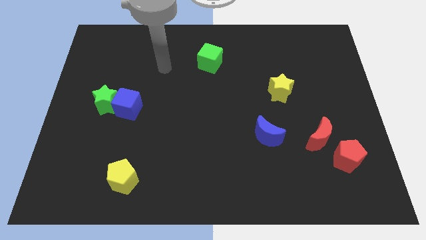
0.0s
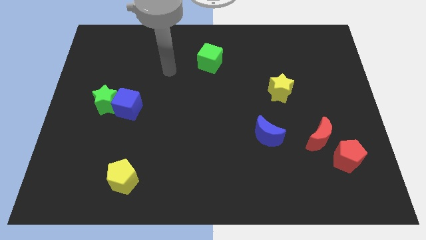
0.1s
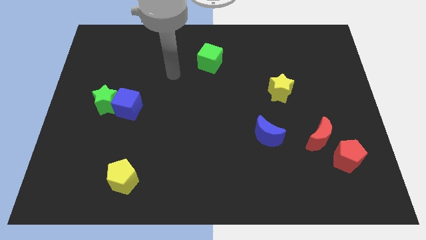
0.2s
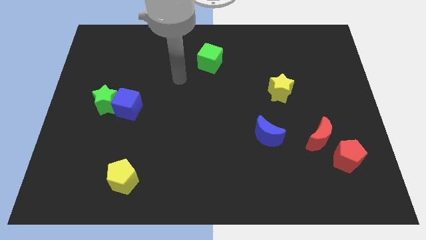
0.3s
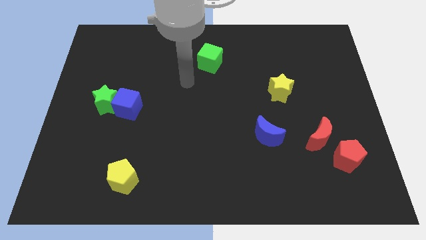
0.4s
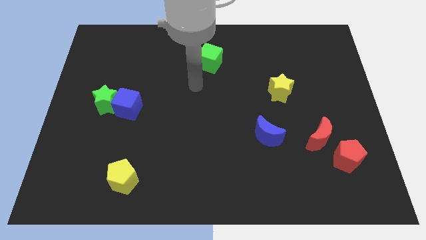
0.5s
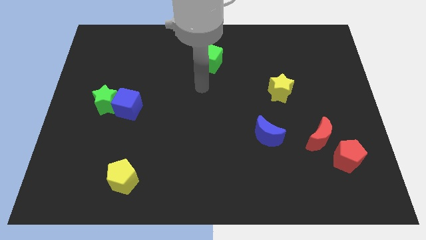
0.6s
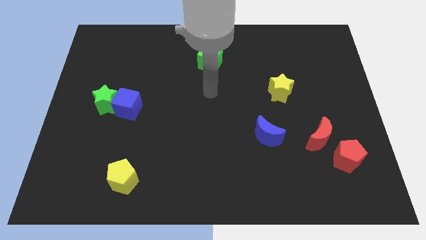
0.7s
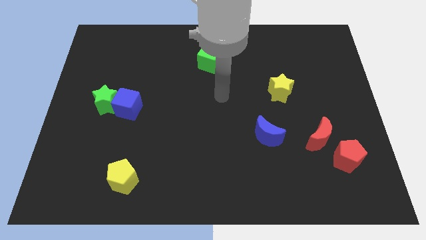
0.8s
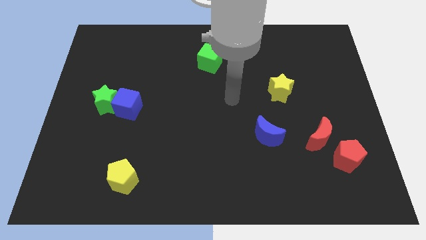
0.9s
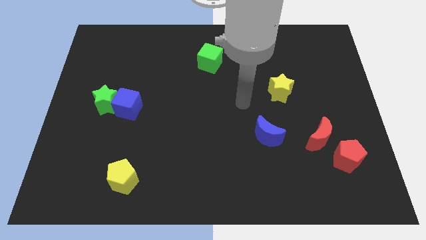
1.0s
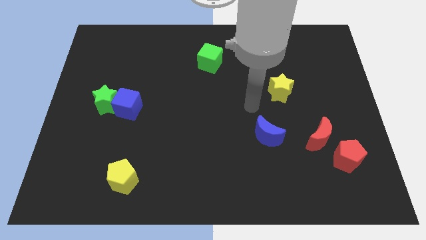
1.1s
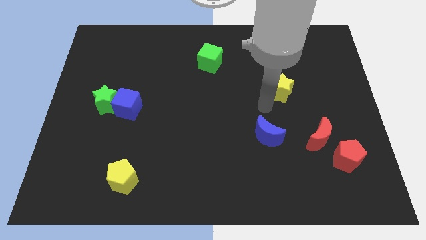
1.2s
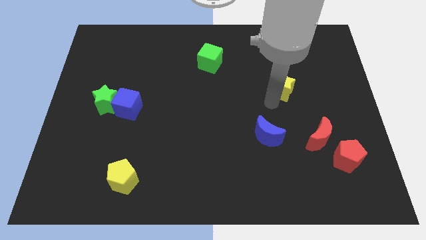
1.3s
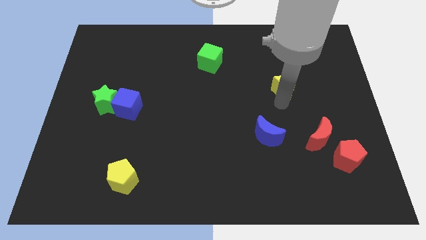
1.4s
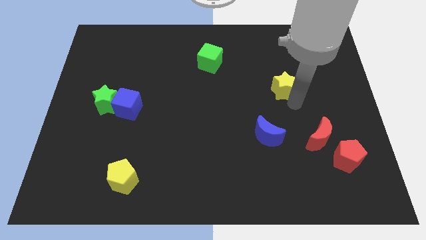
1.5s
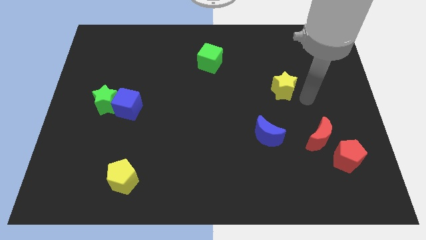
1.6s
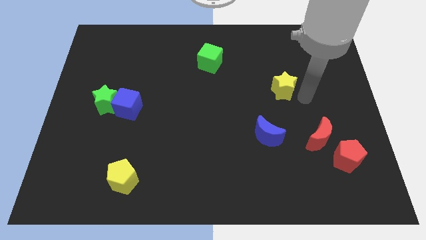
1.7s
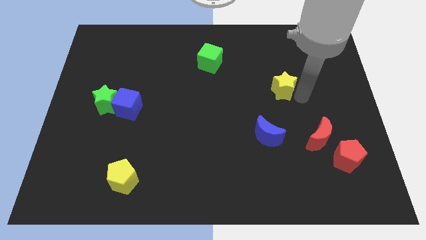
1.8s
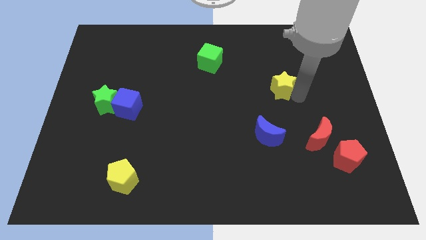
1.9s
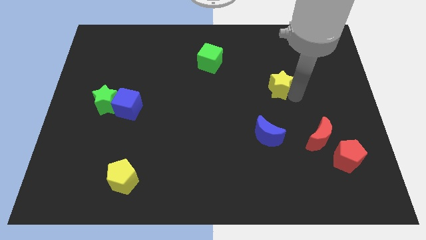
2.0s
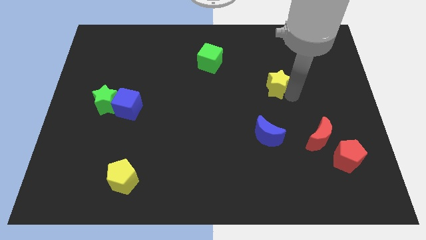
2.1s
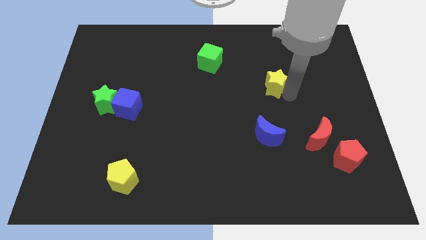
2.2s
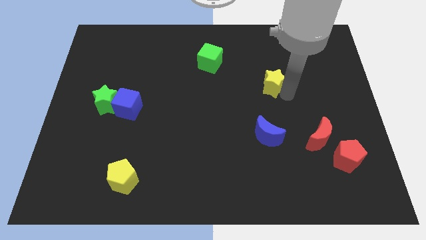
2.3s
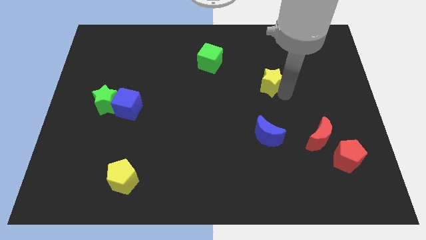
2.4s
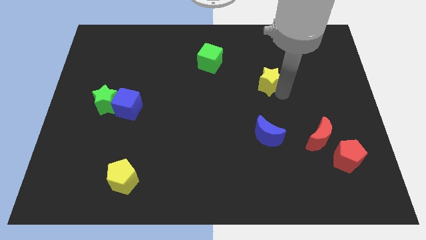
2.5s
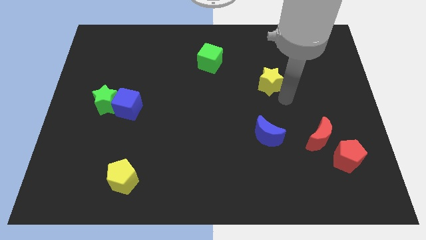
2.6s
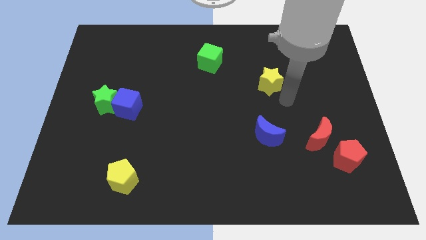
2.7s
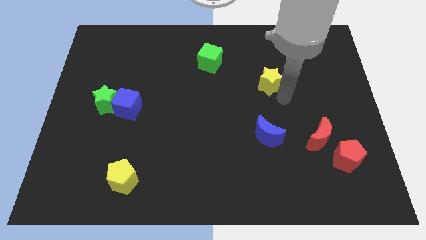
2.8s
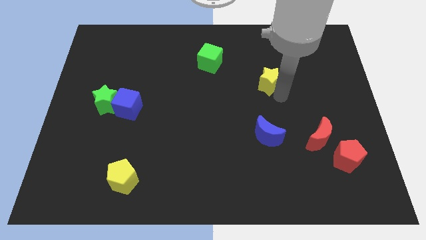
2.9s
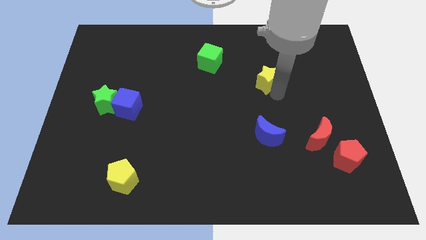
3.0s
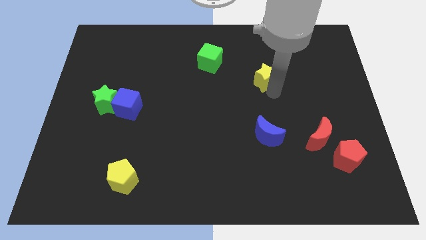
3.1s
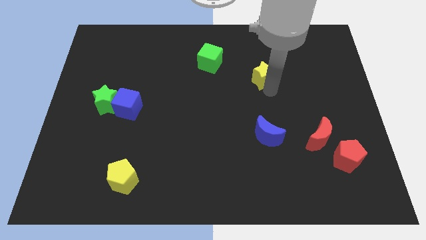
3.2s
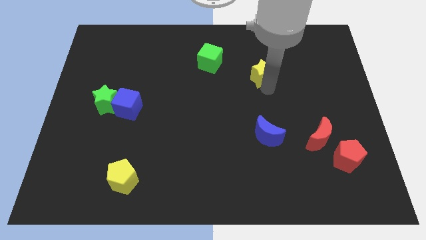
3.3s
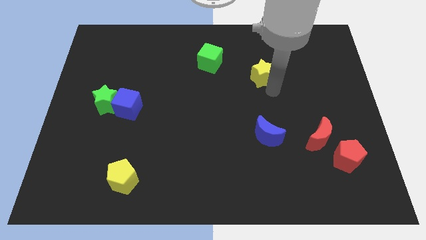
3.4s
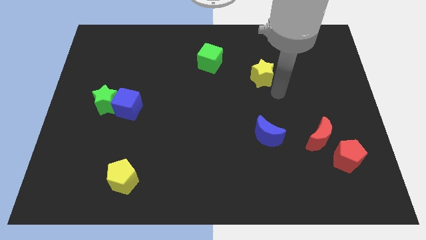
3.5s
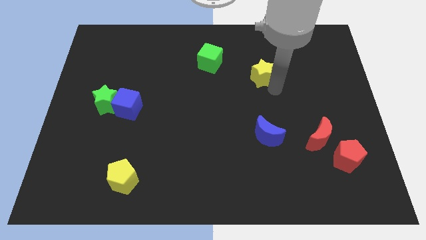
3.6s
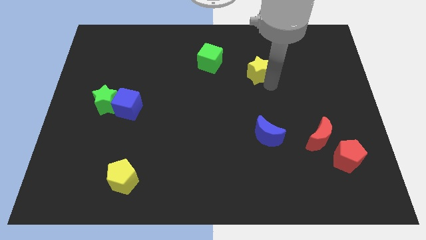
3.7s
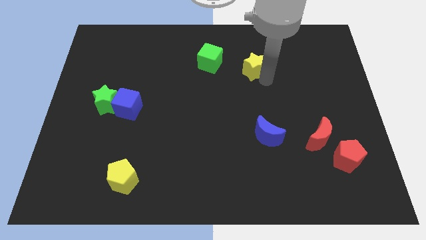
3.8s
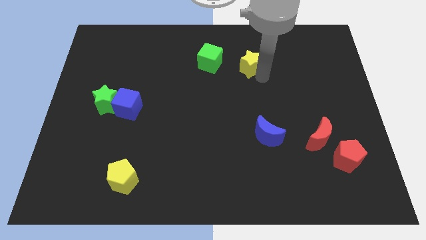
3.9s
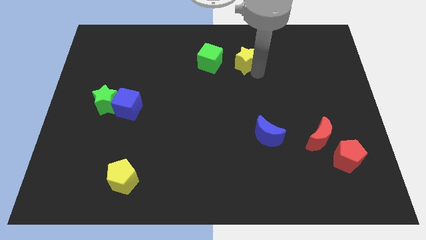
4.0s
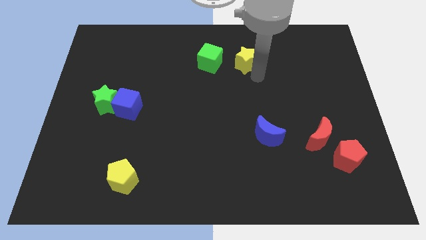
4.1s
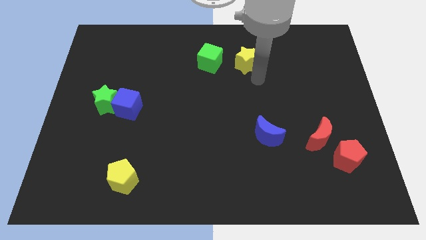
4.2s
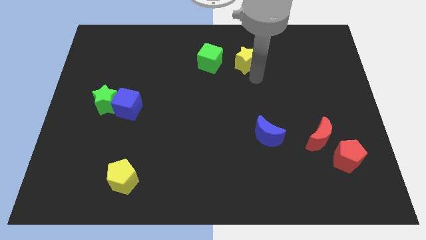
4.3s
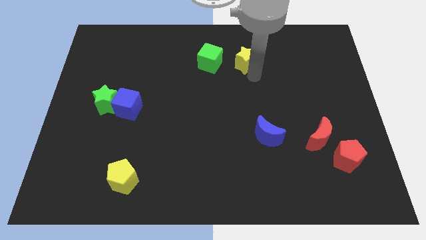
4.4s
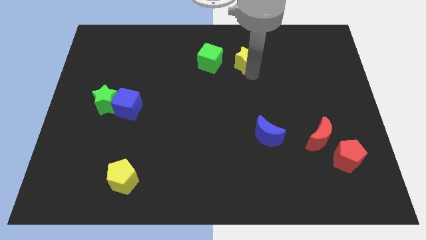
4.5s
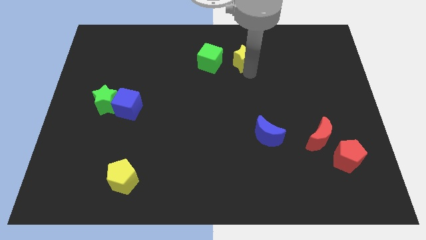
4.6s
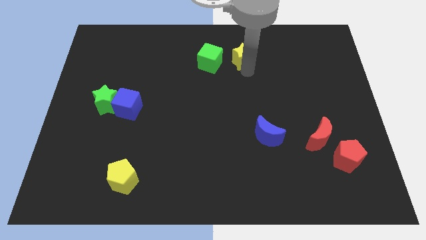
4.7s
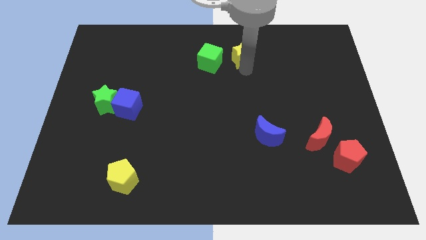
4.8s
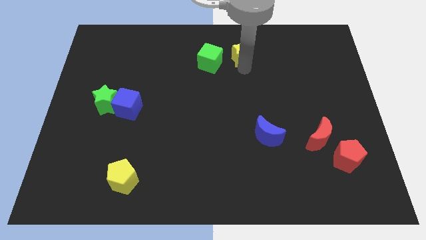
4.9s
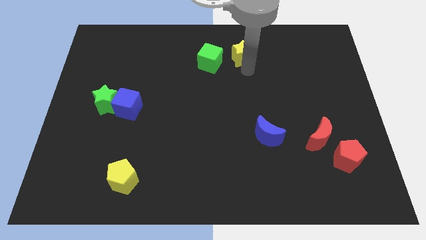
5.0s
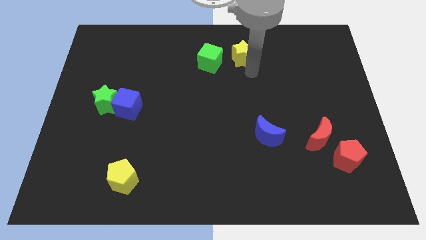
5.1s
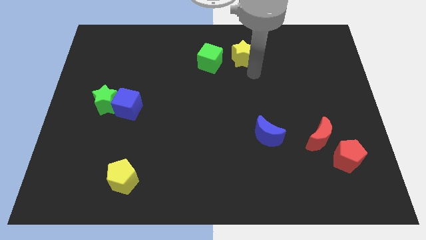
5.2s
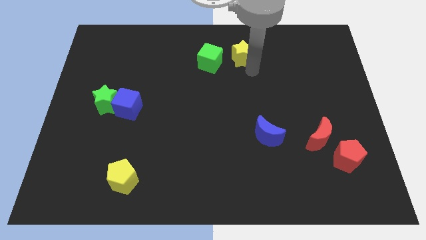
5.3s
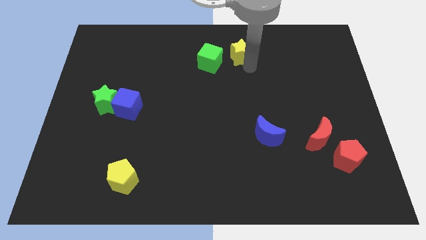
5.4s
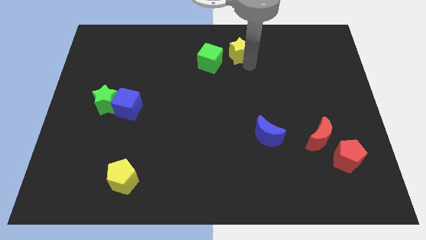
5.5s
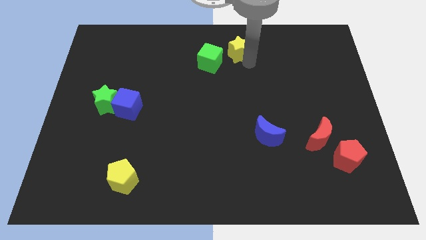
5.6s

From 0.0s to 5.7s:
push the yellow star to the towards your base
